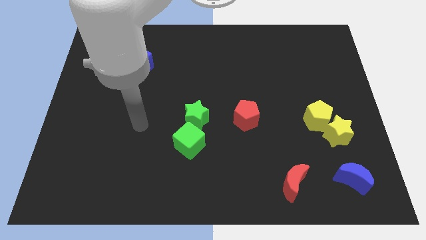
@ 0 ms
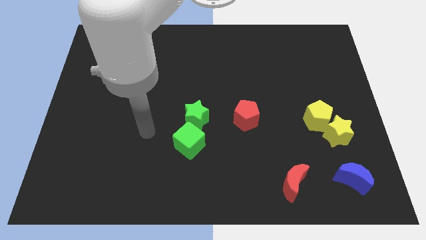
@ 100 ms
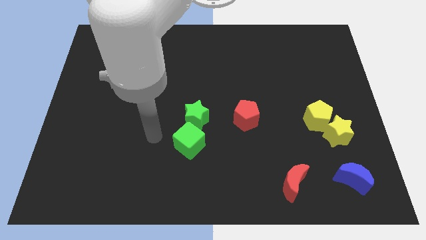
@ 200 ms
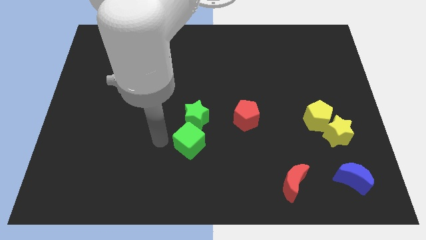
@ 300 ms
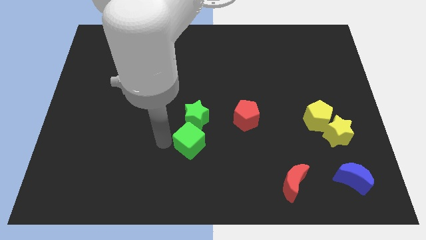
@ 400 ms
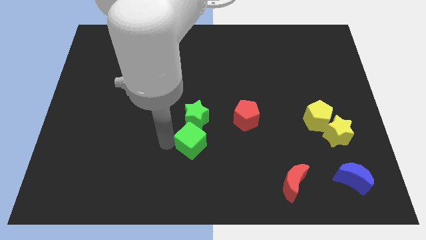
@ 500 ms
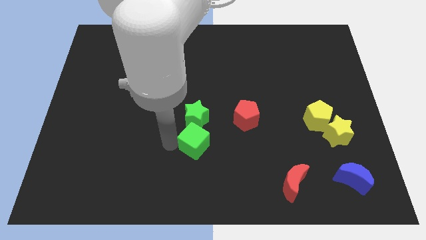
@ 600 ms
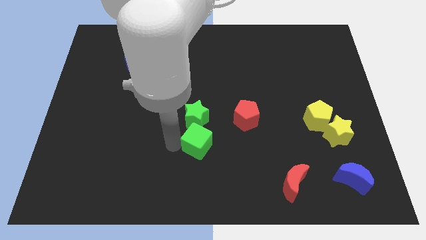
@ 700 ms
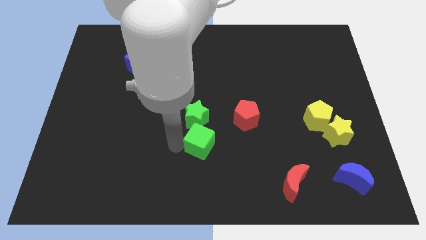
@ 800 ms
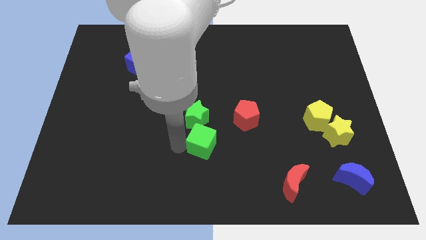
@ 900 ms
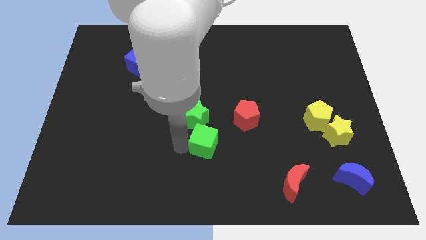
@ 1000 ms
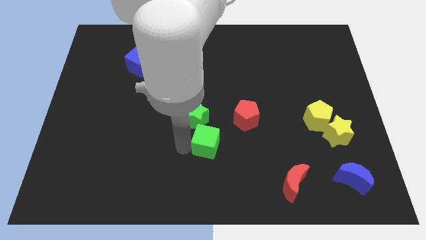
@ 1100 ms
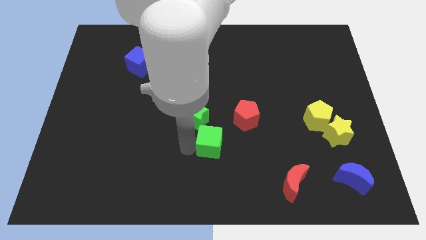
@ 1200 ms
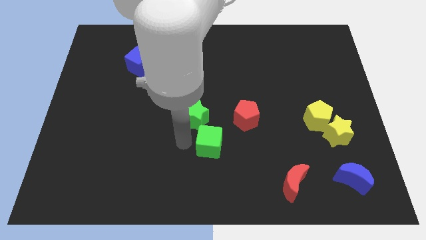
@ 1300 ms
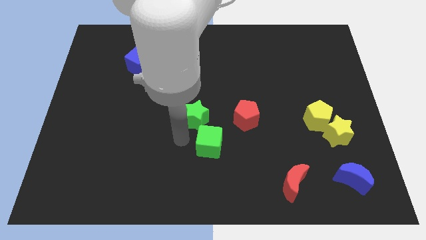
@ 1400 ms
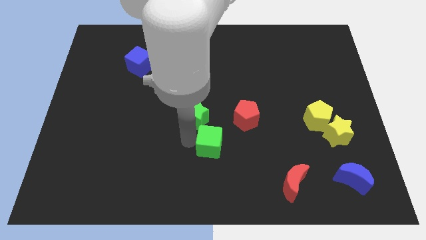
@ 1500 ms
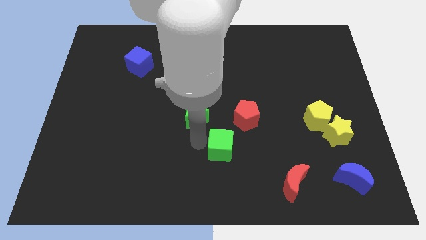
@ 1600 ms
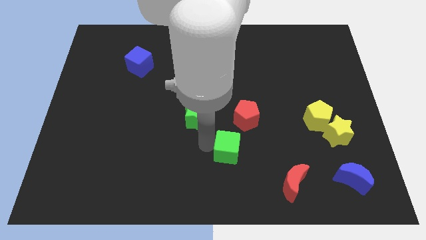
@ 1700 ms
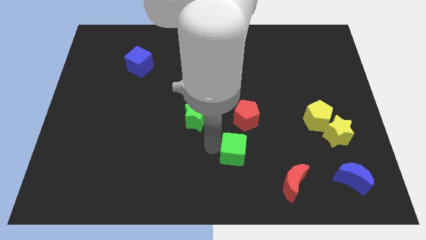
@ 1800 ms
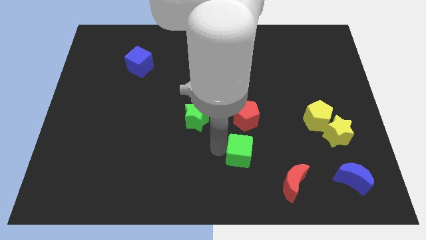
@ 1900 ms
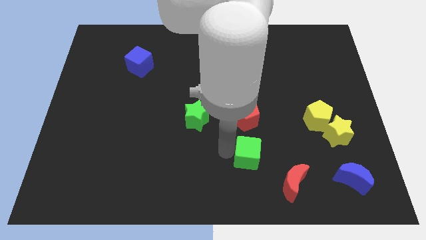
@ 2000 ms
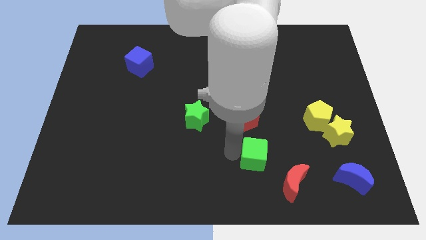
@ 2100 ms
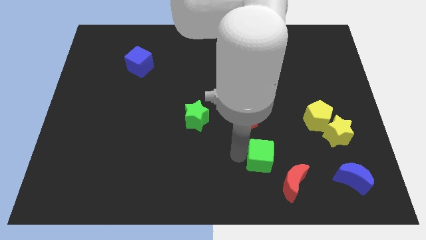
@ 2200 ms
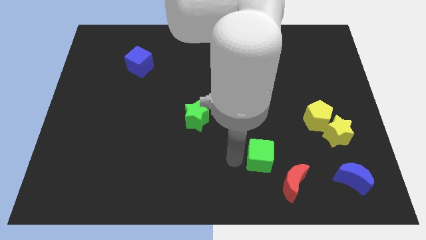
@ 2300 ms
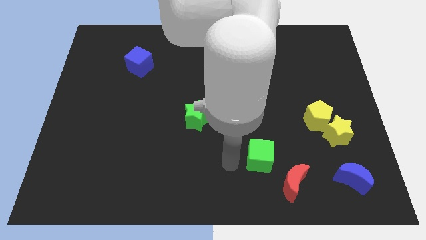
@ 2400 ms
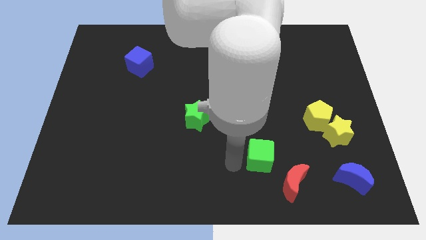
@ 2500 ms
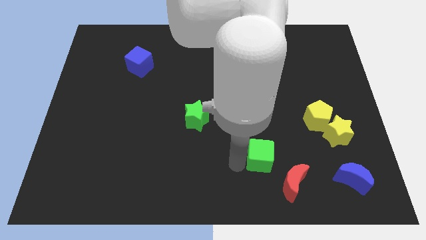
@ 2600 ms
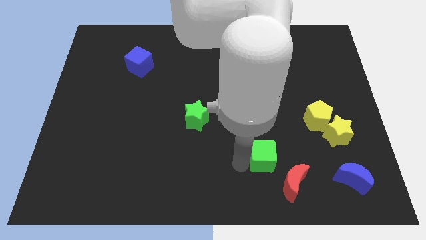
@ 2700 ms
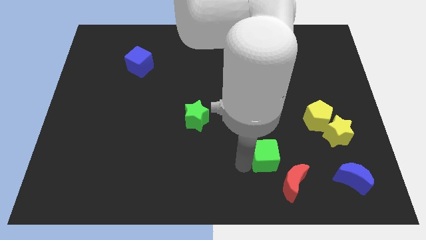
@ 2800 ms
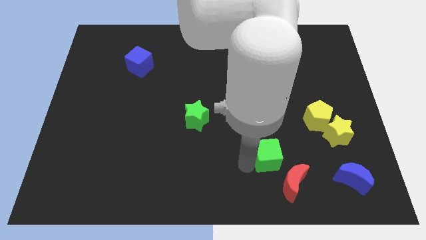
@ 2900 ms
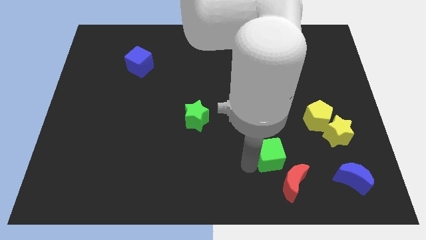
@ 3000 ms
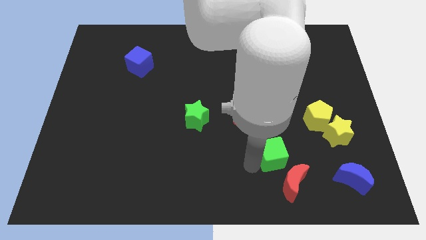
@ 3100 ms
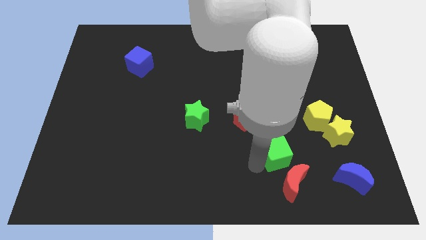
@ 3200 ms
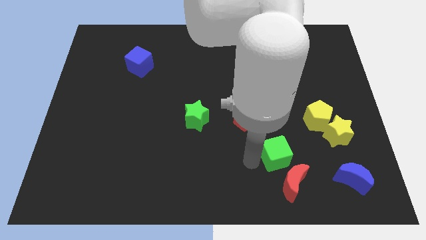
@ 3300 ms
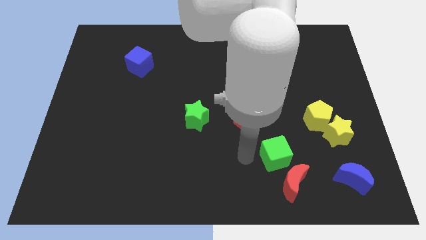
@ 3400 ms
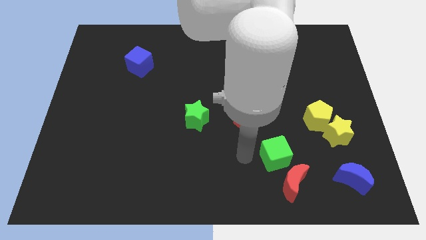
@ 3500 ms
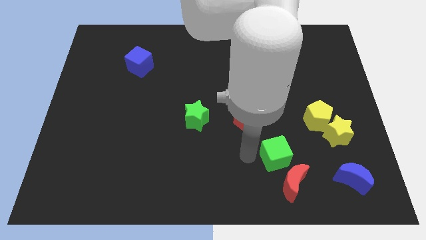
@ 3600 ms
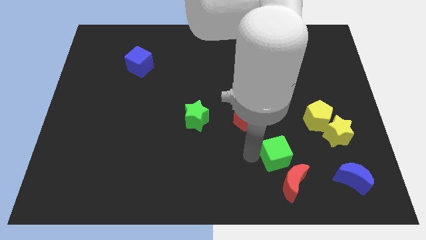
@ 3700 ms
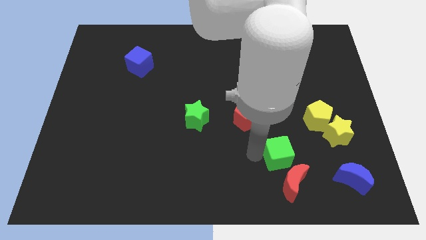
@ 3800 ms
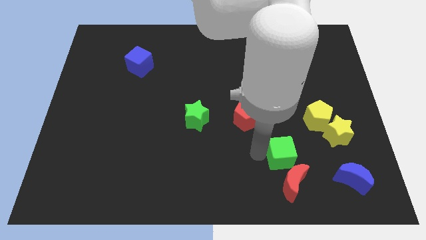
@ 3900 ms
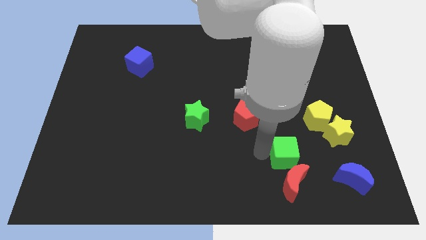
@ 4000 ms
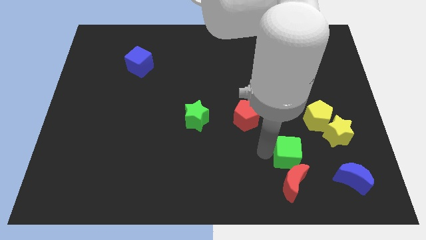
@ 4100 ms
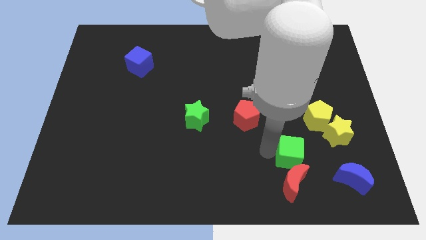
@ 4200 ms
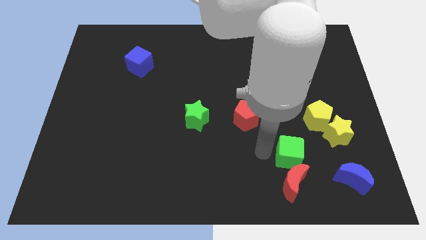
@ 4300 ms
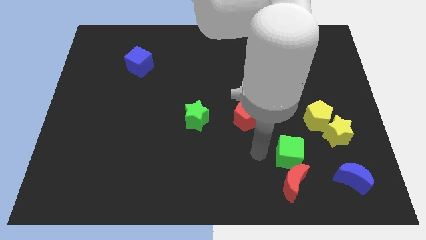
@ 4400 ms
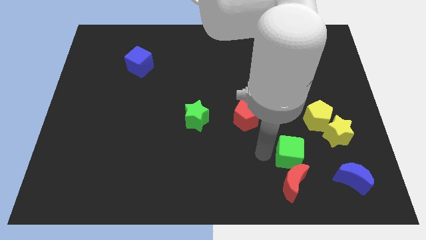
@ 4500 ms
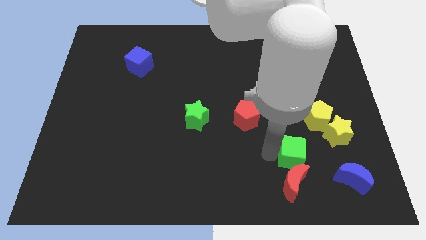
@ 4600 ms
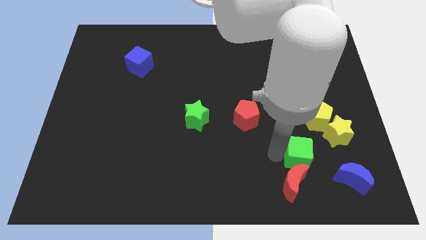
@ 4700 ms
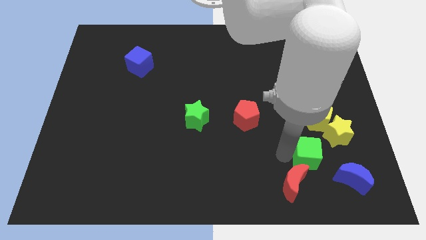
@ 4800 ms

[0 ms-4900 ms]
put the green cube below the yellow pentagon

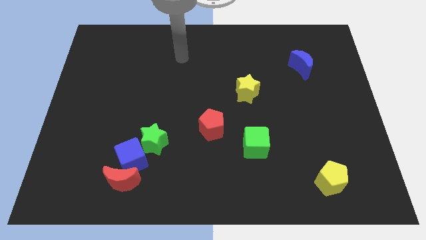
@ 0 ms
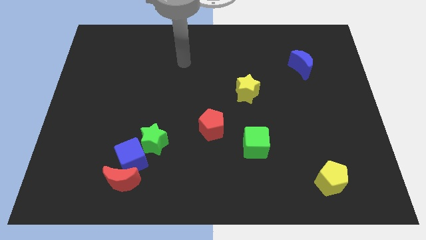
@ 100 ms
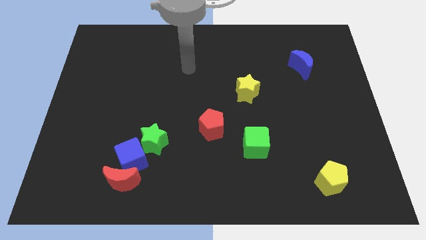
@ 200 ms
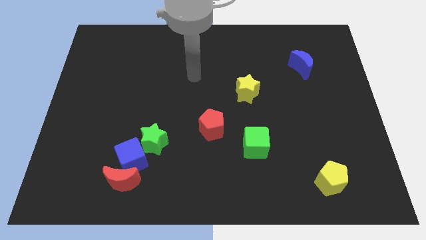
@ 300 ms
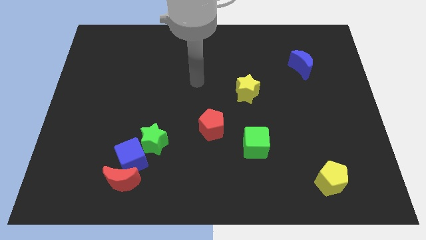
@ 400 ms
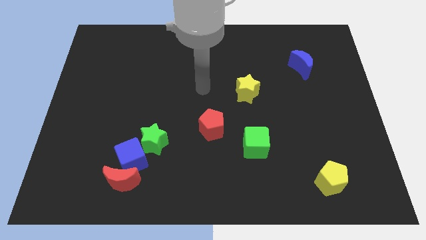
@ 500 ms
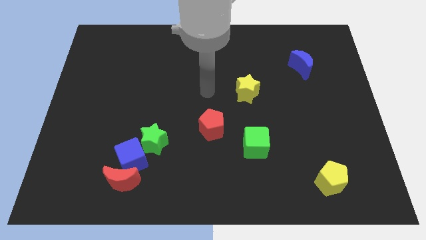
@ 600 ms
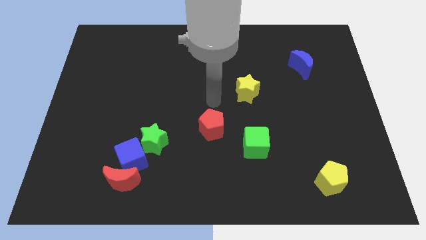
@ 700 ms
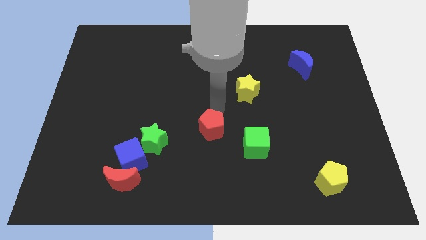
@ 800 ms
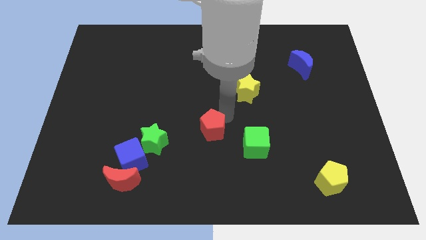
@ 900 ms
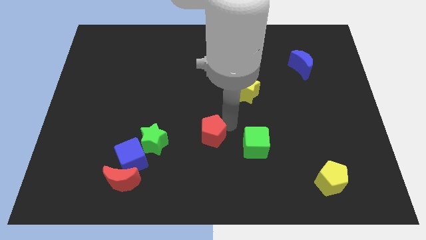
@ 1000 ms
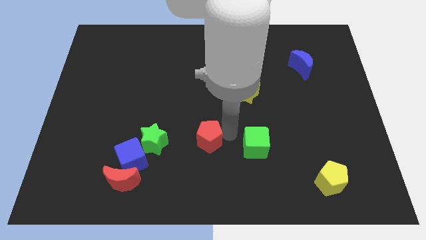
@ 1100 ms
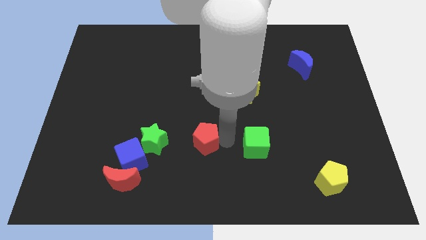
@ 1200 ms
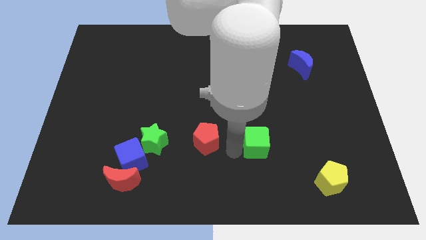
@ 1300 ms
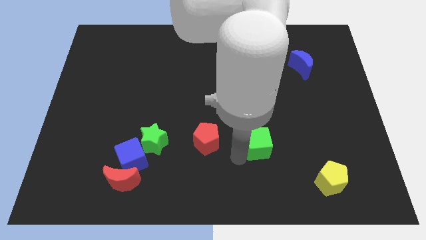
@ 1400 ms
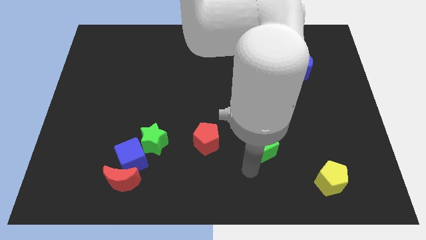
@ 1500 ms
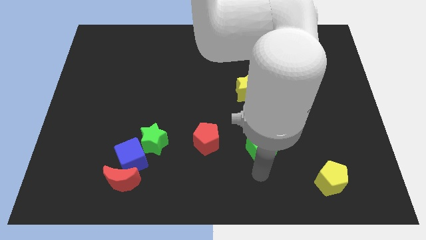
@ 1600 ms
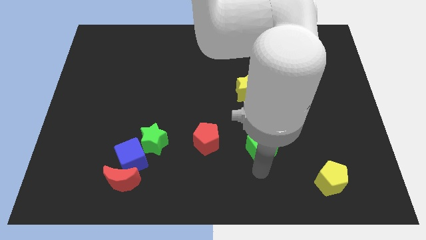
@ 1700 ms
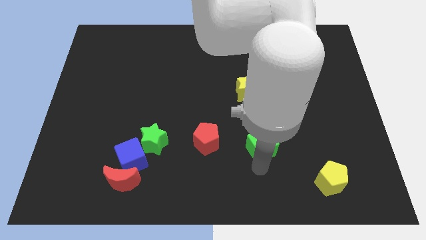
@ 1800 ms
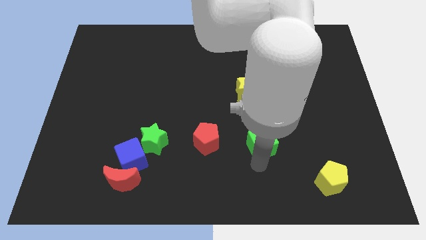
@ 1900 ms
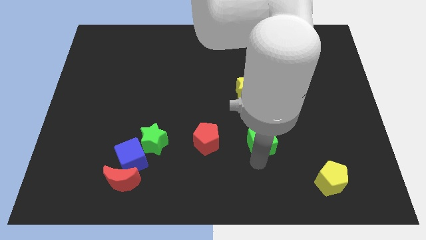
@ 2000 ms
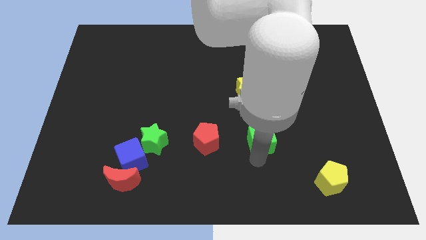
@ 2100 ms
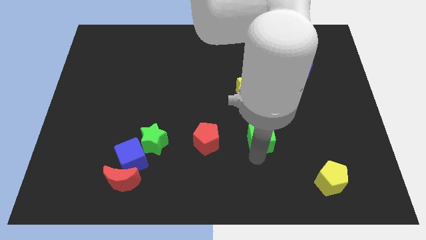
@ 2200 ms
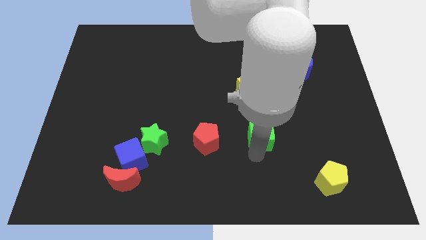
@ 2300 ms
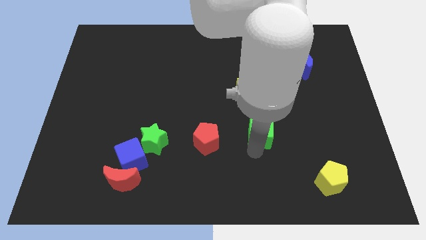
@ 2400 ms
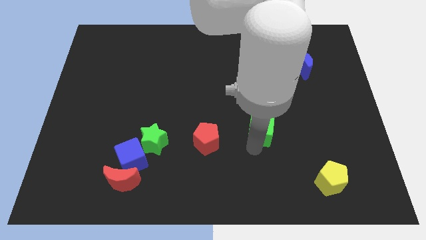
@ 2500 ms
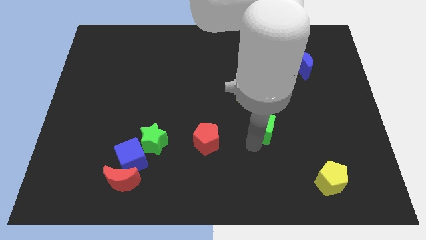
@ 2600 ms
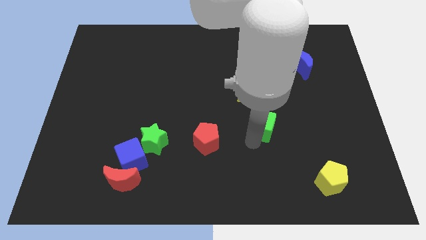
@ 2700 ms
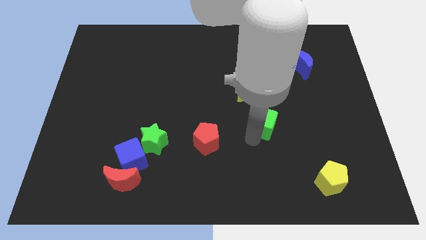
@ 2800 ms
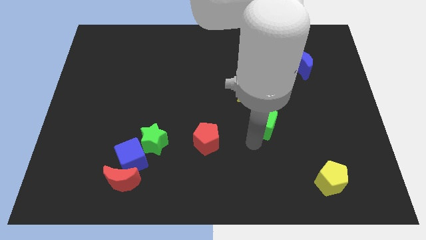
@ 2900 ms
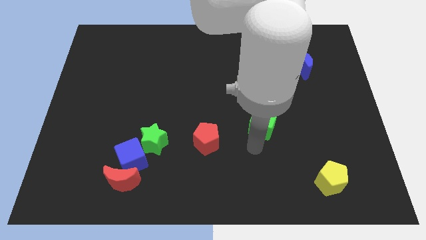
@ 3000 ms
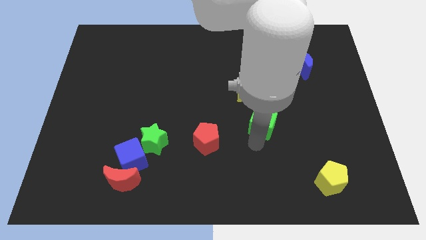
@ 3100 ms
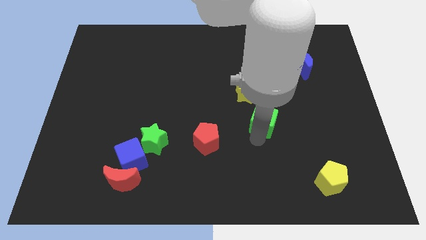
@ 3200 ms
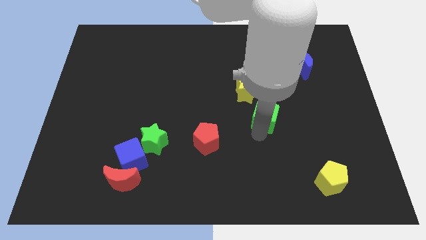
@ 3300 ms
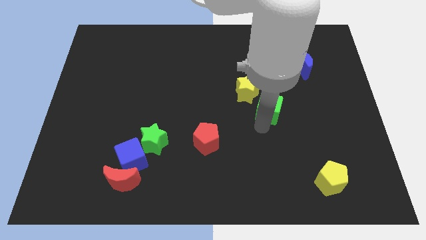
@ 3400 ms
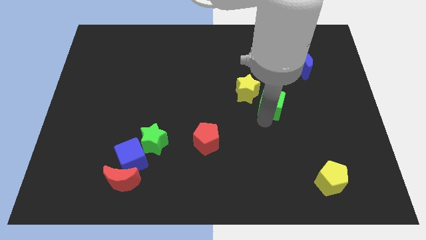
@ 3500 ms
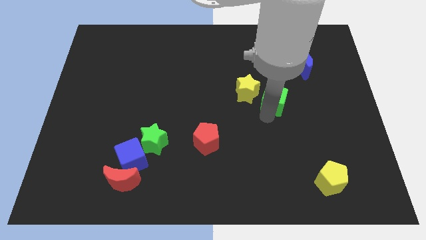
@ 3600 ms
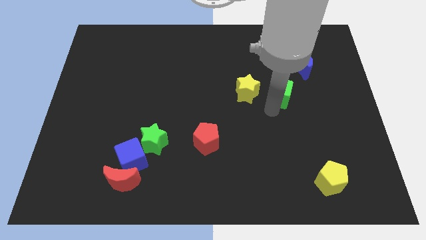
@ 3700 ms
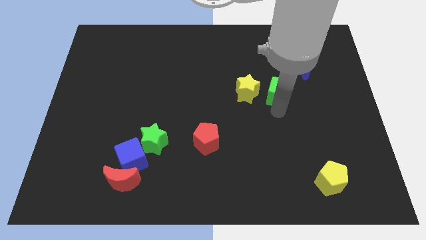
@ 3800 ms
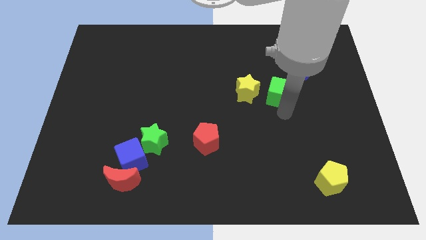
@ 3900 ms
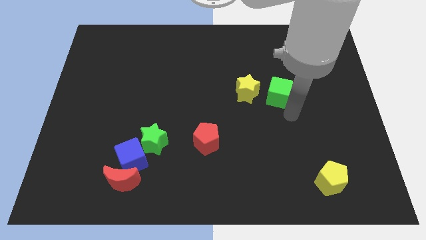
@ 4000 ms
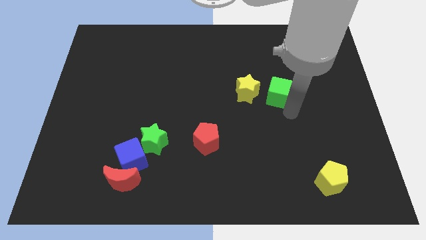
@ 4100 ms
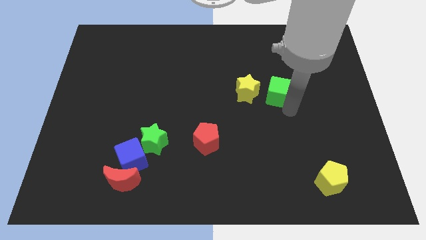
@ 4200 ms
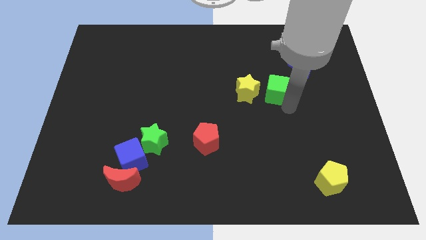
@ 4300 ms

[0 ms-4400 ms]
slide the green cube to the top right side of the yellow star
